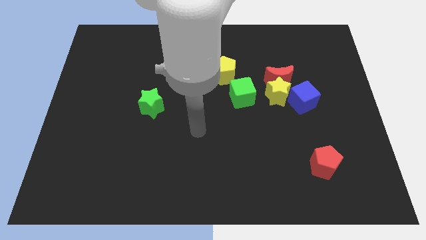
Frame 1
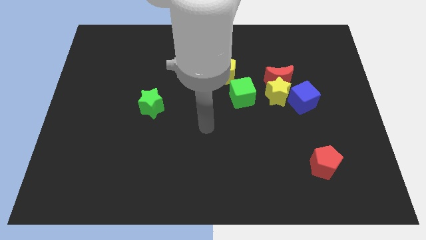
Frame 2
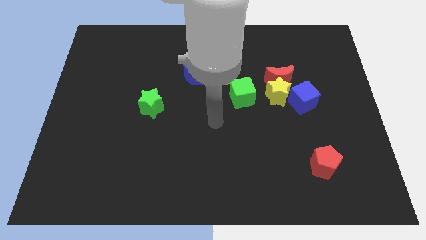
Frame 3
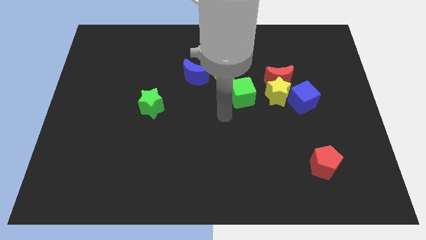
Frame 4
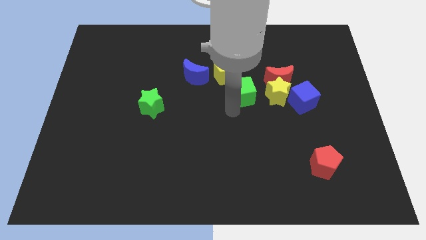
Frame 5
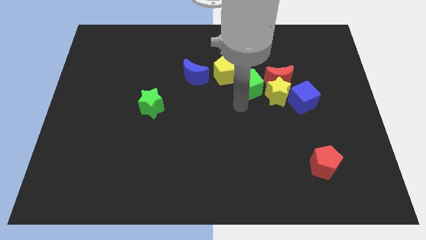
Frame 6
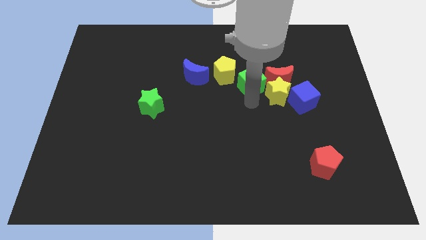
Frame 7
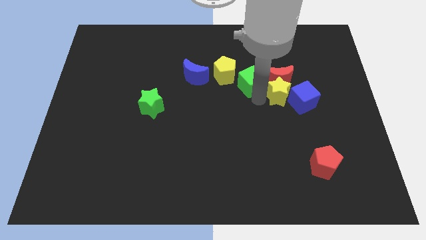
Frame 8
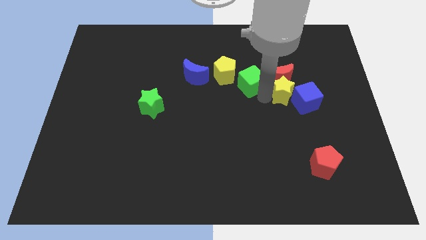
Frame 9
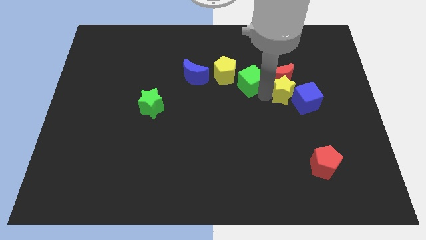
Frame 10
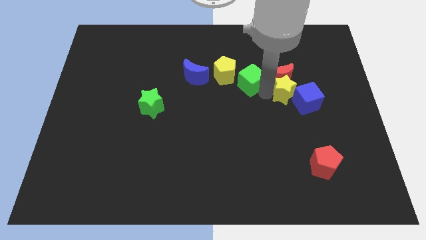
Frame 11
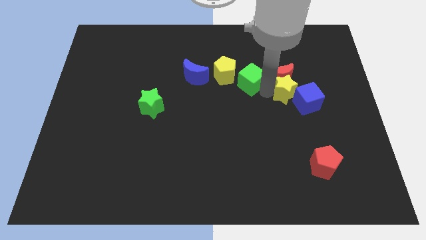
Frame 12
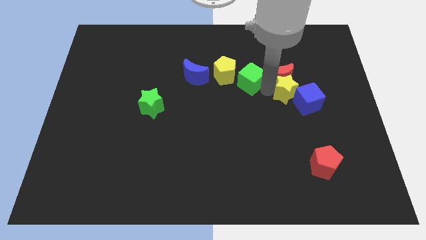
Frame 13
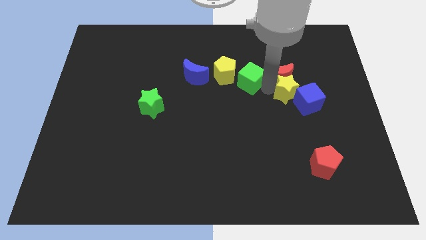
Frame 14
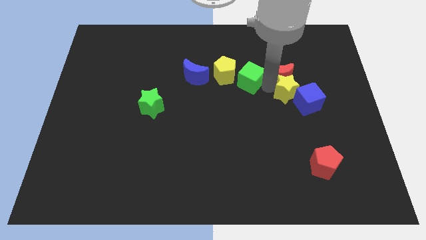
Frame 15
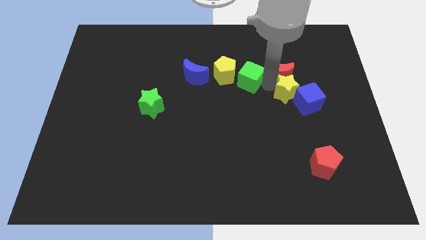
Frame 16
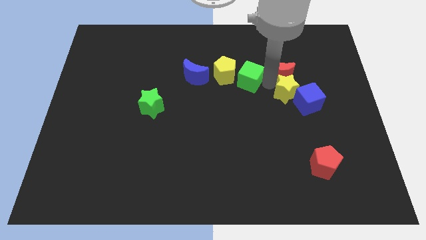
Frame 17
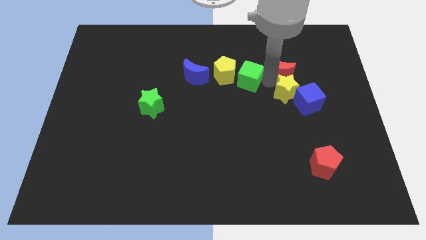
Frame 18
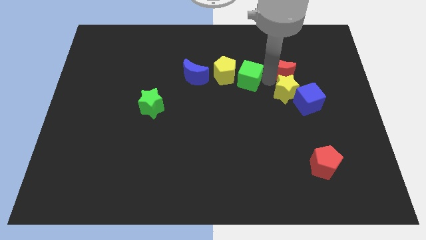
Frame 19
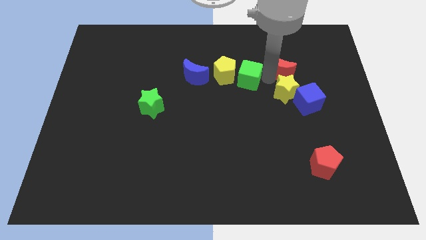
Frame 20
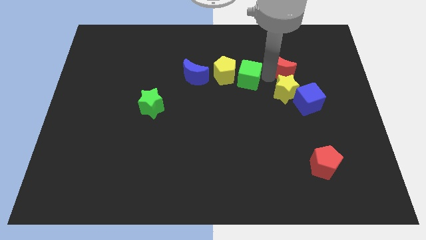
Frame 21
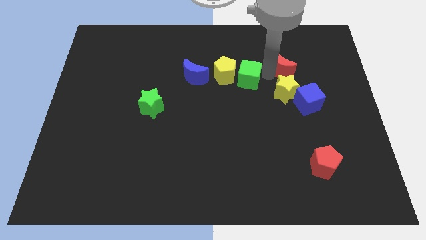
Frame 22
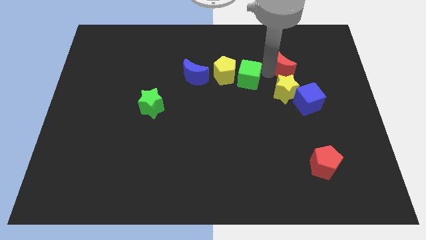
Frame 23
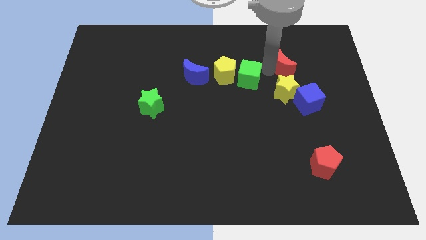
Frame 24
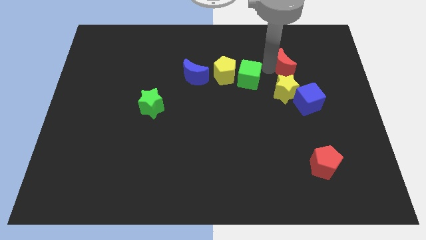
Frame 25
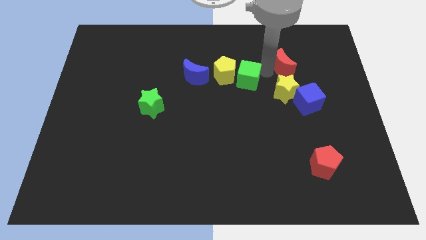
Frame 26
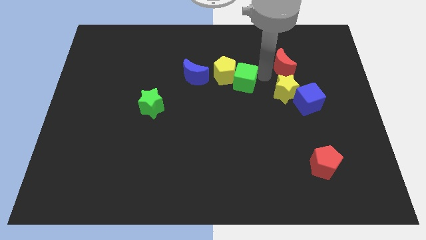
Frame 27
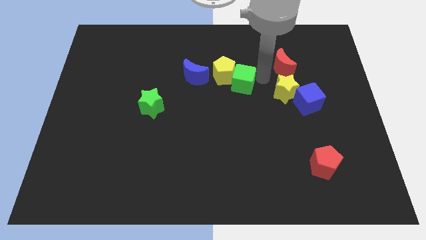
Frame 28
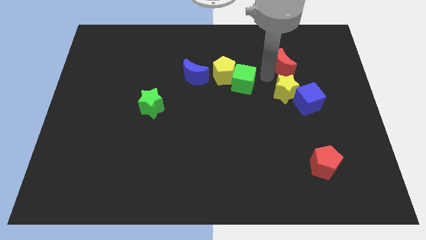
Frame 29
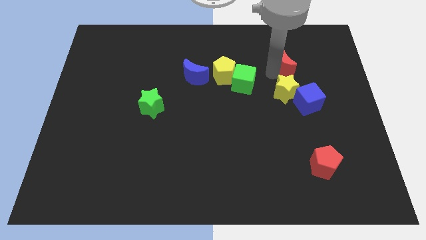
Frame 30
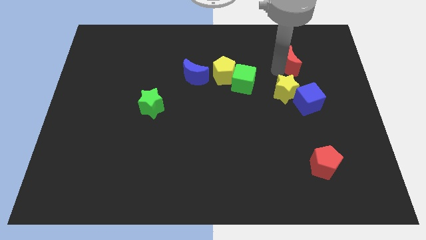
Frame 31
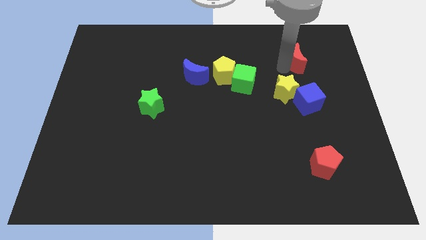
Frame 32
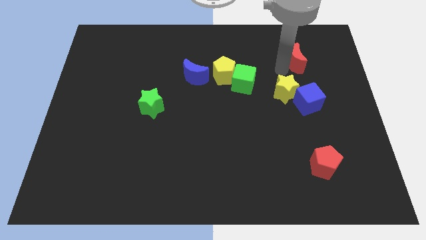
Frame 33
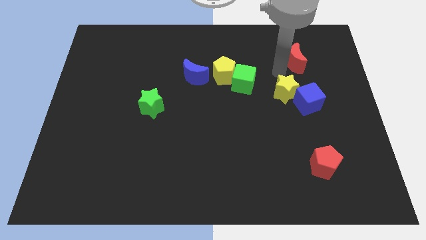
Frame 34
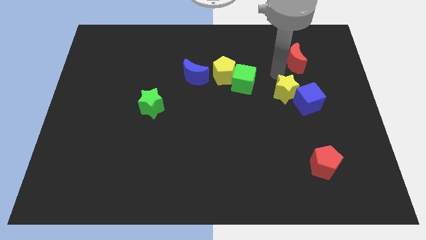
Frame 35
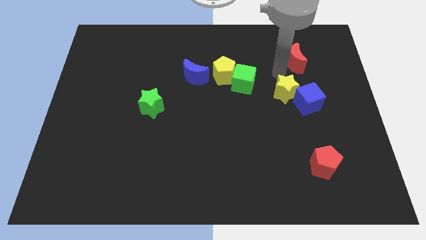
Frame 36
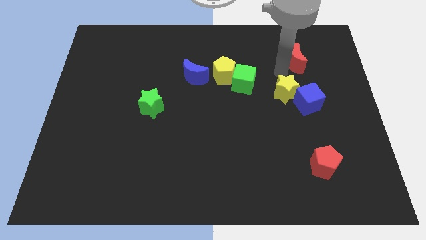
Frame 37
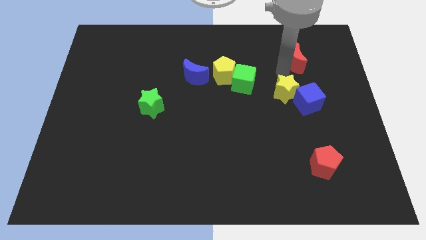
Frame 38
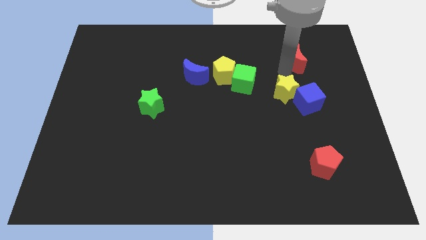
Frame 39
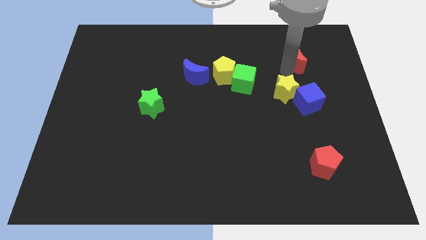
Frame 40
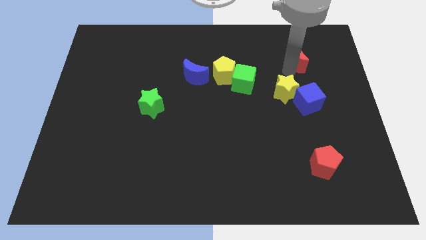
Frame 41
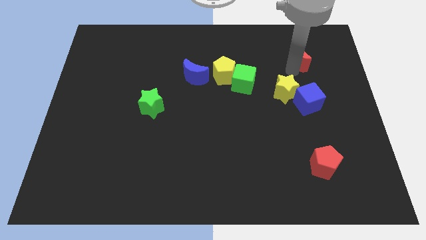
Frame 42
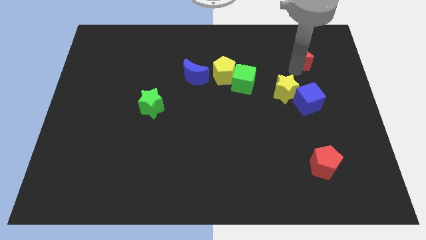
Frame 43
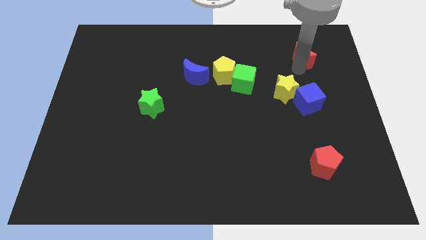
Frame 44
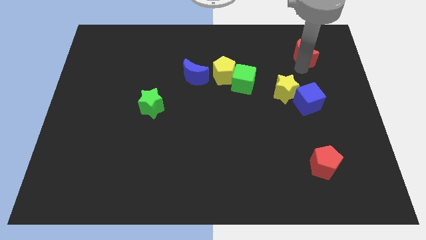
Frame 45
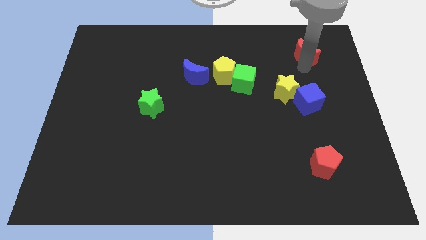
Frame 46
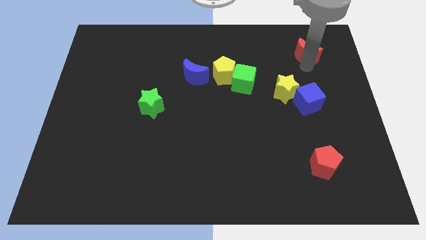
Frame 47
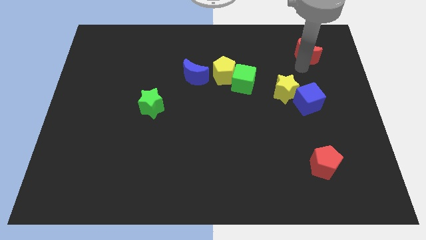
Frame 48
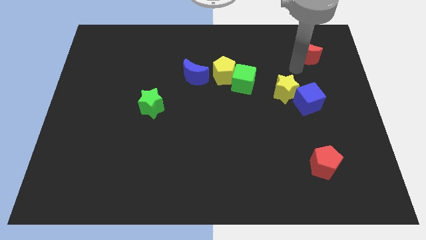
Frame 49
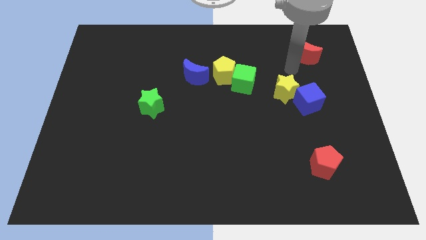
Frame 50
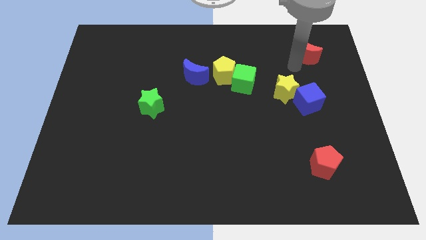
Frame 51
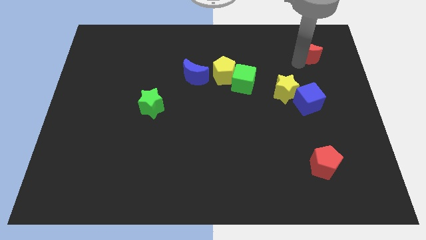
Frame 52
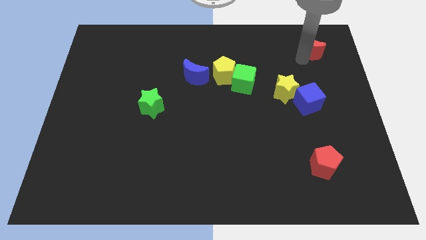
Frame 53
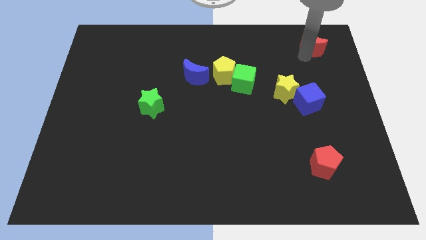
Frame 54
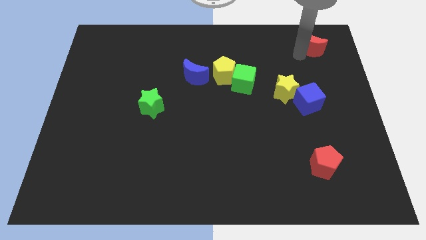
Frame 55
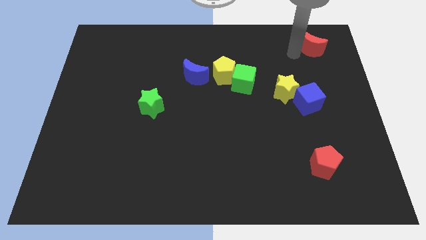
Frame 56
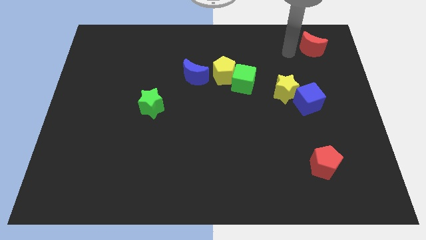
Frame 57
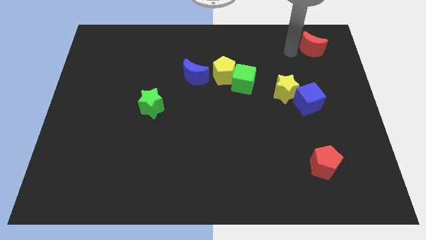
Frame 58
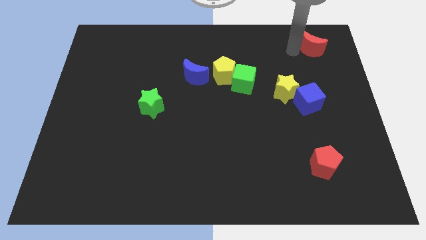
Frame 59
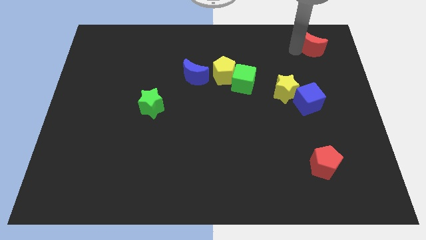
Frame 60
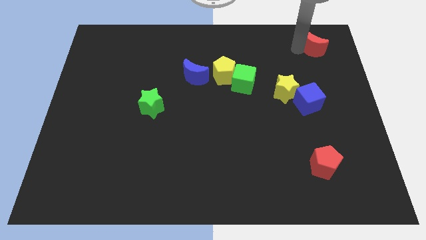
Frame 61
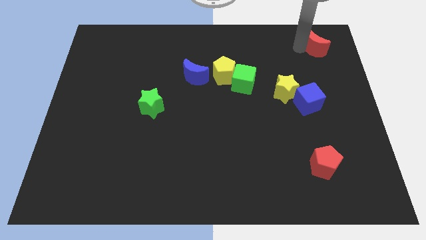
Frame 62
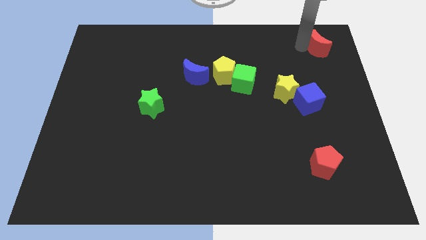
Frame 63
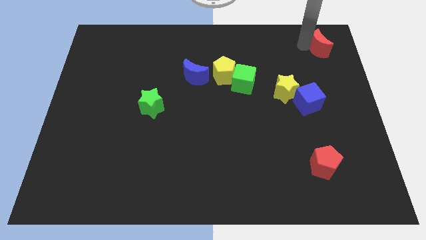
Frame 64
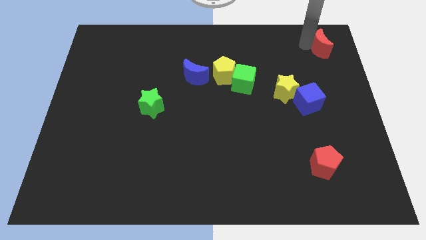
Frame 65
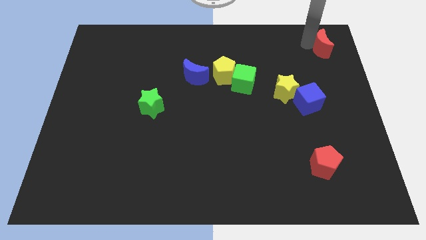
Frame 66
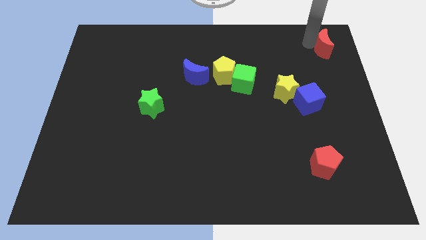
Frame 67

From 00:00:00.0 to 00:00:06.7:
push the red moon to the top right
